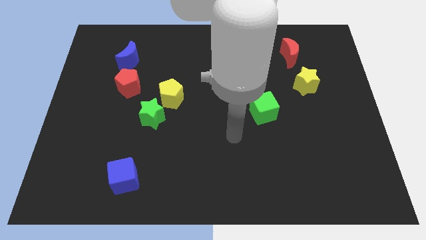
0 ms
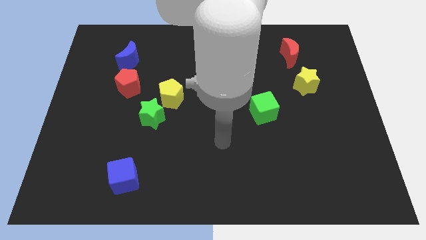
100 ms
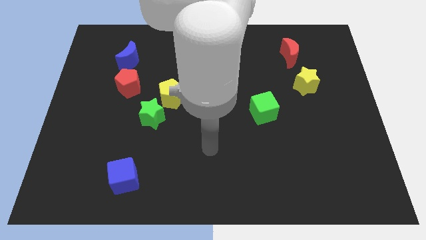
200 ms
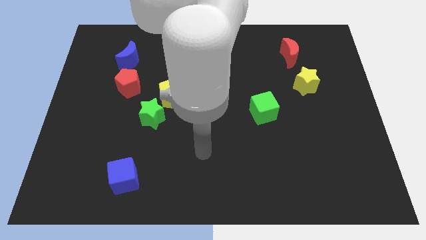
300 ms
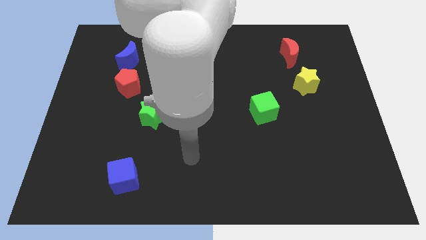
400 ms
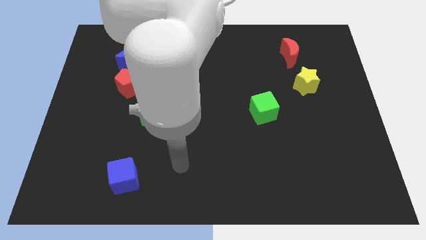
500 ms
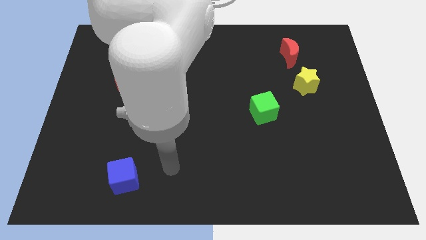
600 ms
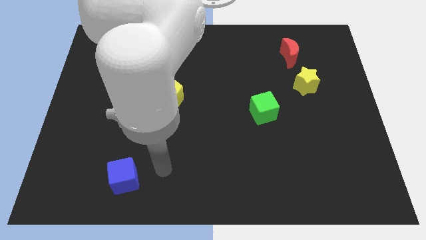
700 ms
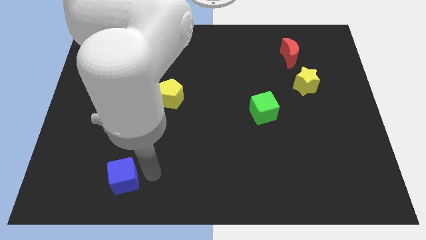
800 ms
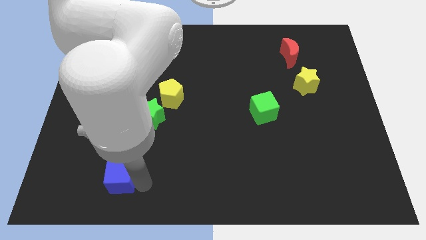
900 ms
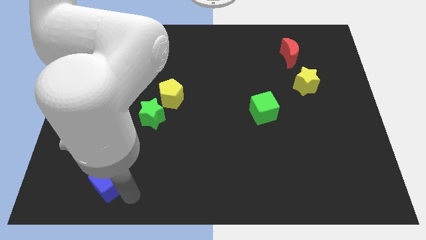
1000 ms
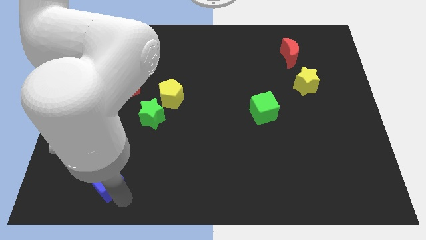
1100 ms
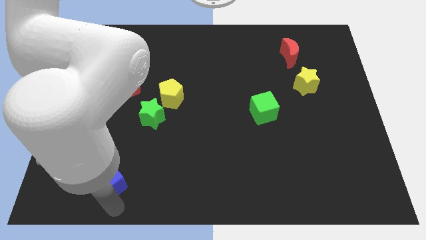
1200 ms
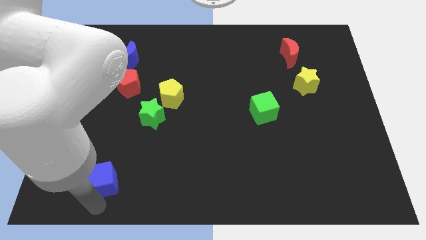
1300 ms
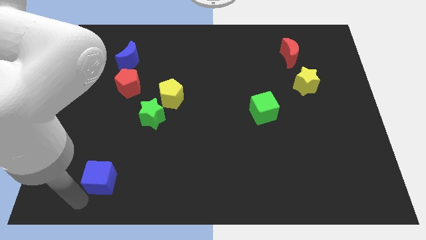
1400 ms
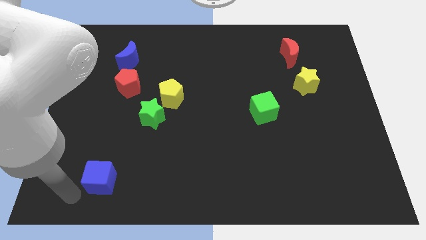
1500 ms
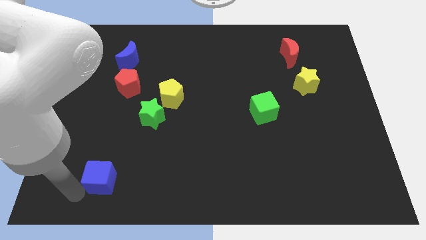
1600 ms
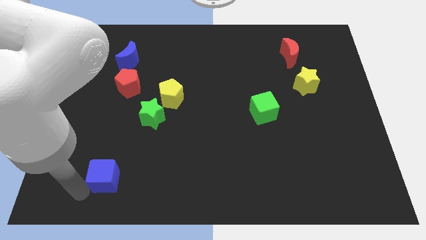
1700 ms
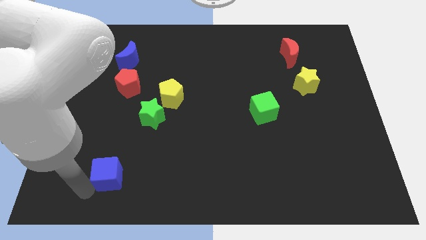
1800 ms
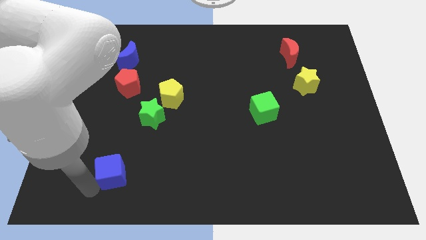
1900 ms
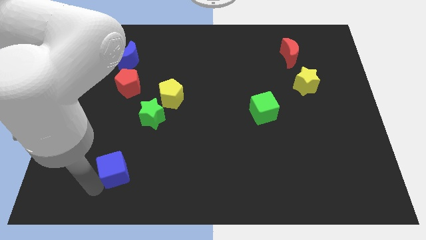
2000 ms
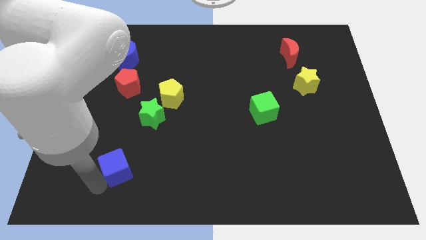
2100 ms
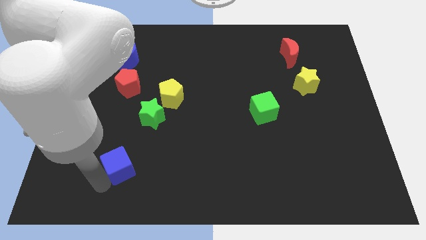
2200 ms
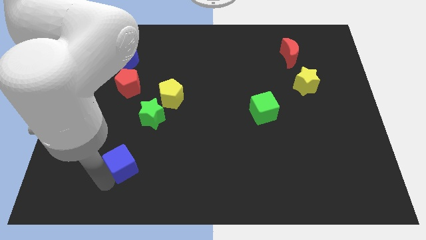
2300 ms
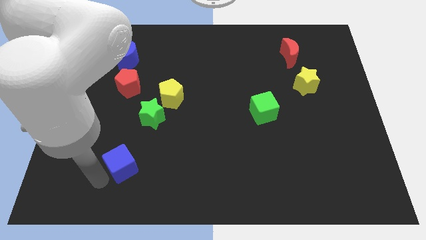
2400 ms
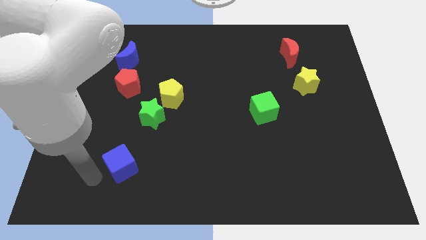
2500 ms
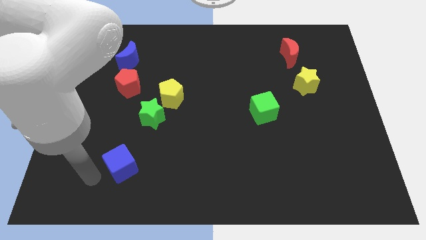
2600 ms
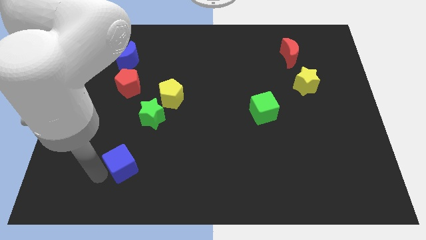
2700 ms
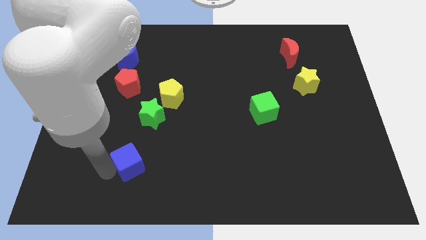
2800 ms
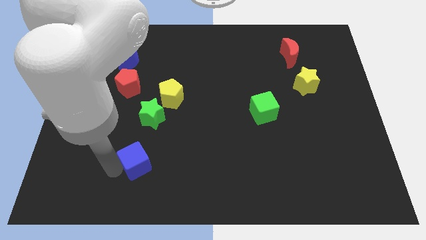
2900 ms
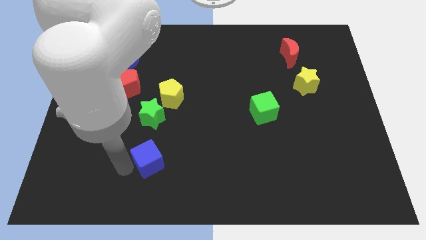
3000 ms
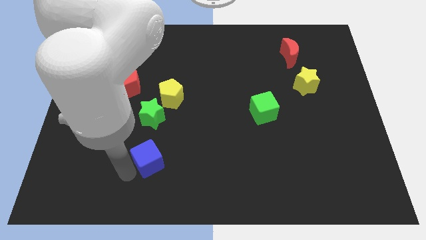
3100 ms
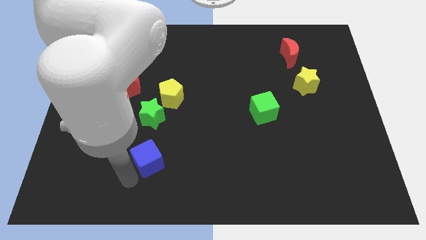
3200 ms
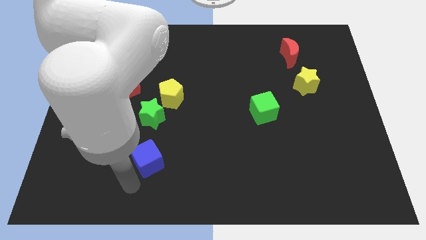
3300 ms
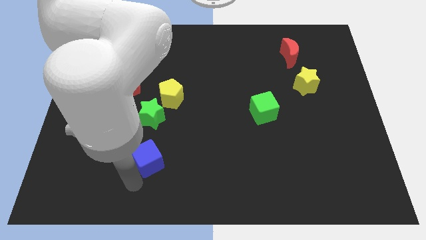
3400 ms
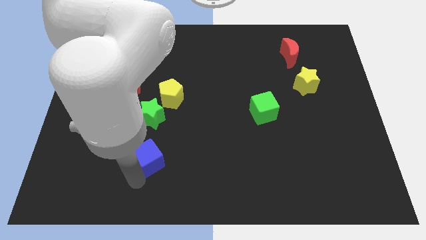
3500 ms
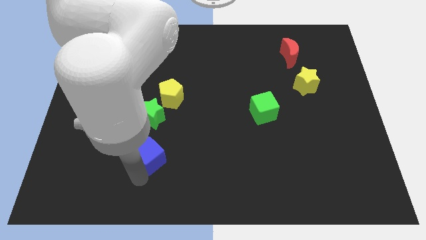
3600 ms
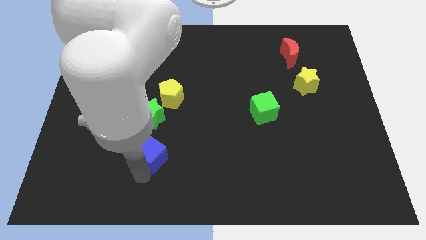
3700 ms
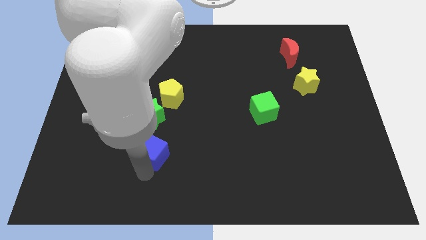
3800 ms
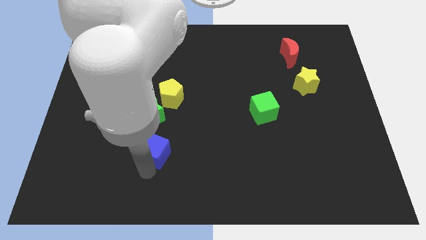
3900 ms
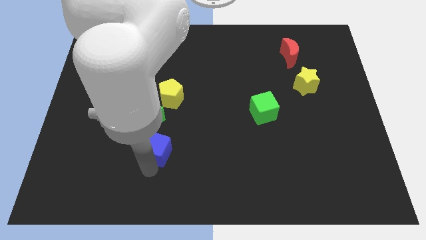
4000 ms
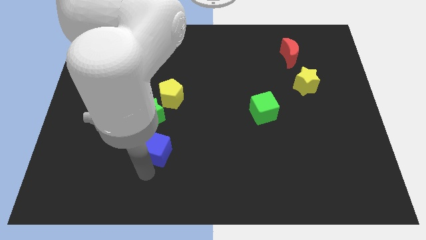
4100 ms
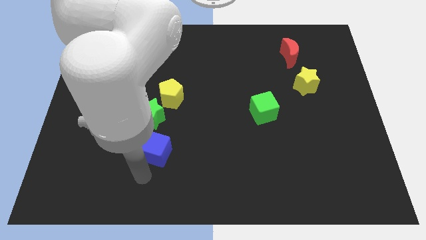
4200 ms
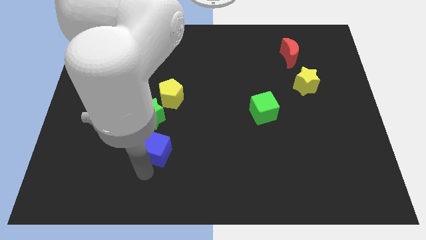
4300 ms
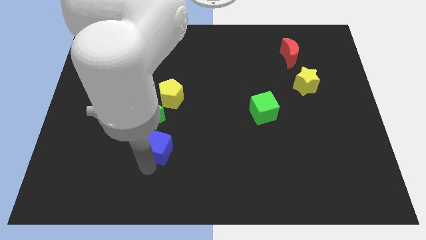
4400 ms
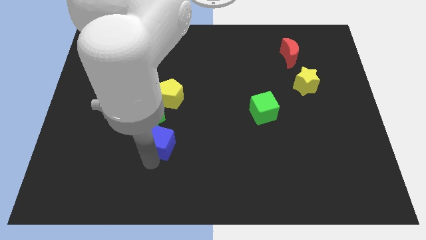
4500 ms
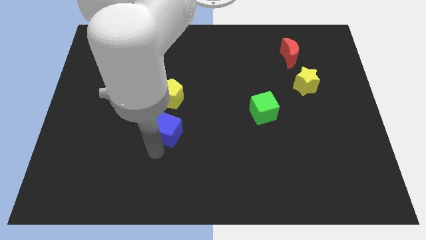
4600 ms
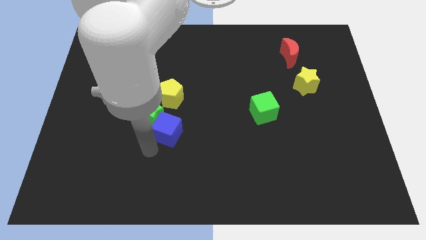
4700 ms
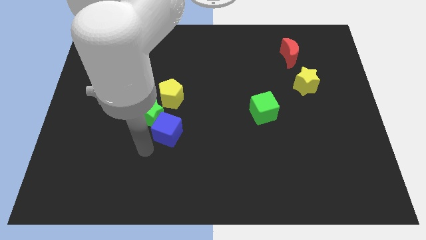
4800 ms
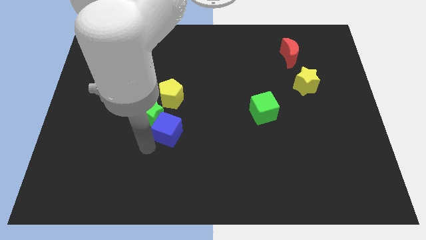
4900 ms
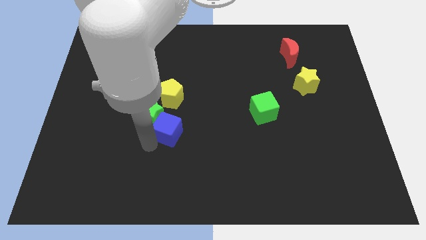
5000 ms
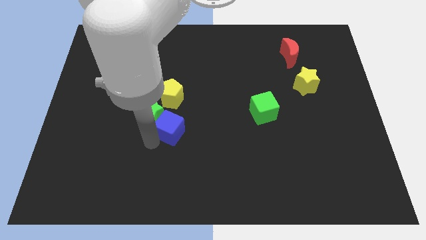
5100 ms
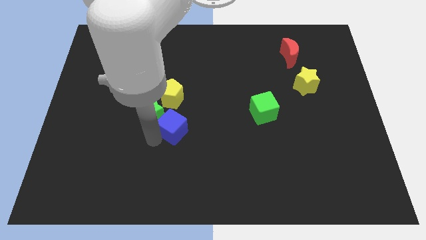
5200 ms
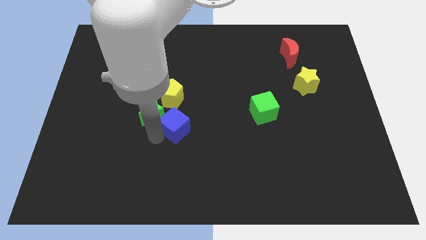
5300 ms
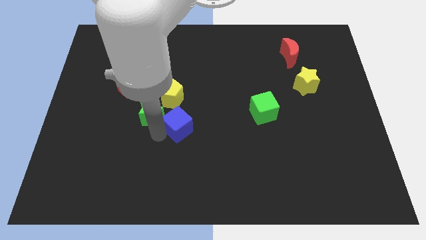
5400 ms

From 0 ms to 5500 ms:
push the blue cube to the bottom right of the yellow pentagon

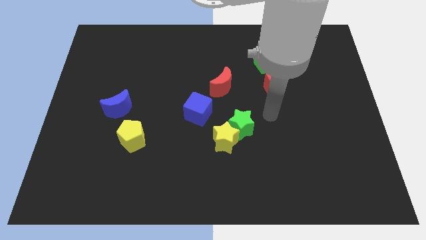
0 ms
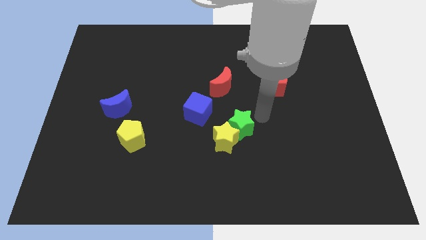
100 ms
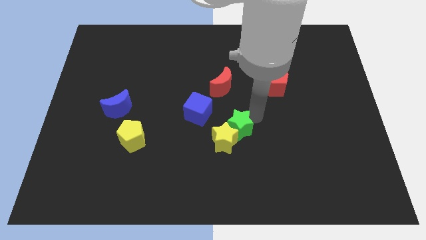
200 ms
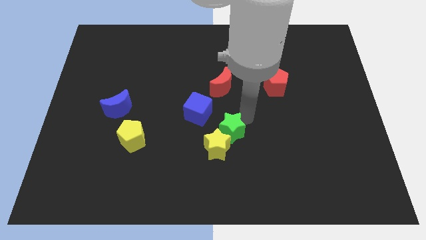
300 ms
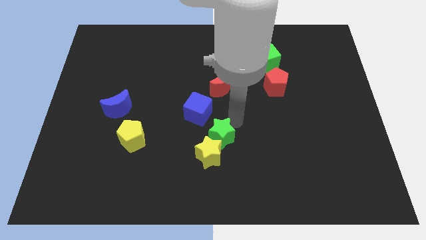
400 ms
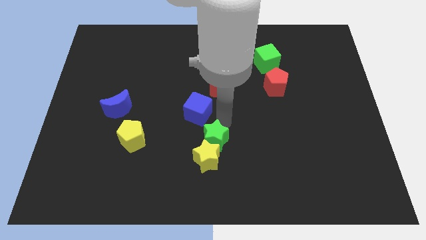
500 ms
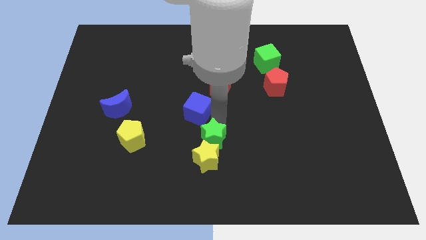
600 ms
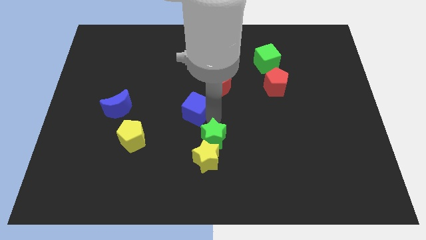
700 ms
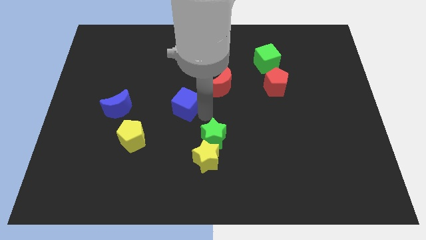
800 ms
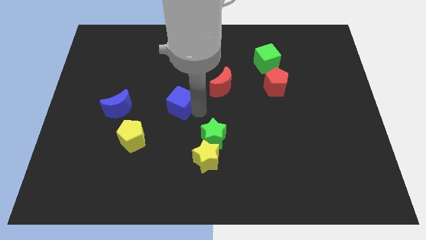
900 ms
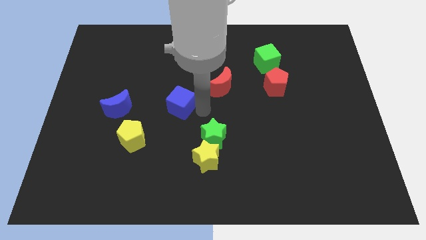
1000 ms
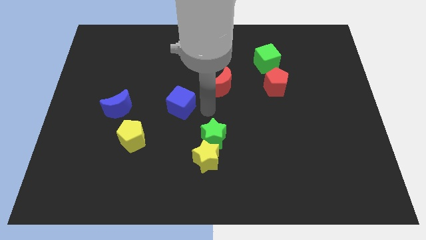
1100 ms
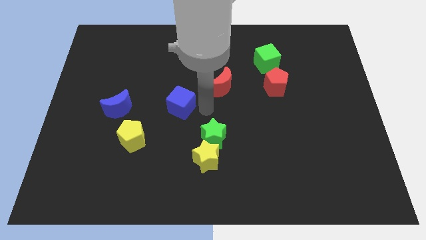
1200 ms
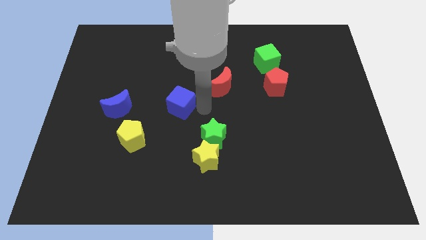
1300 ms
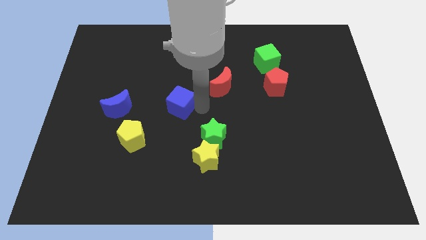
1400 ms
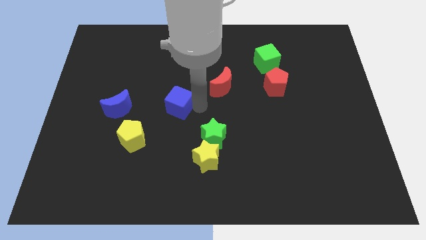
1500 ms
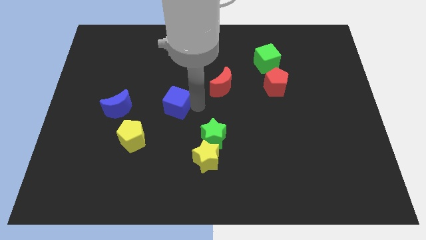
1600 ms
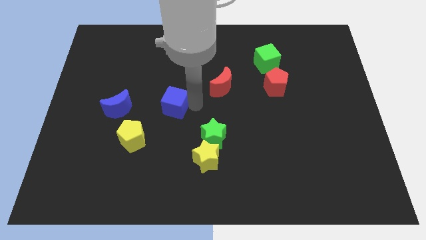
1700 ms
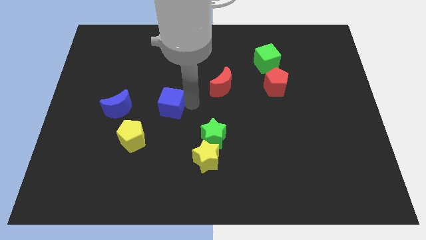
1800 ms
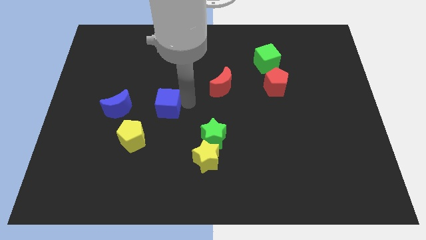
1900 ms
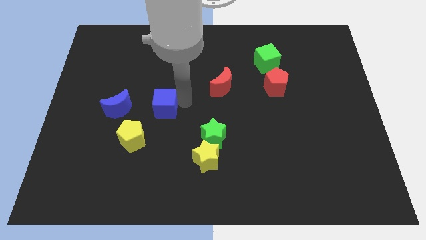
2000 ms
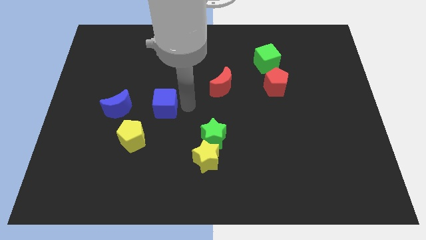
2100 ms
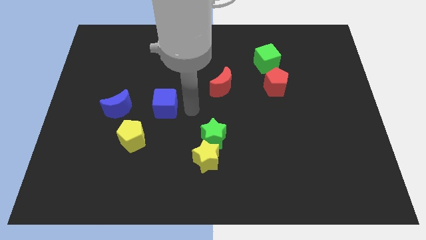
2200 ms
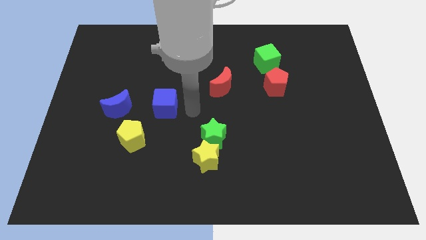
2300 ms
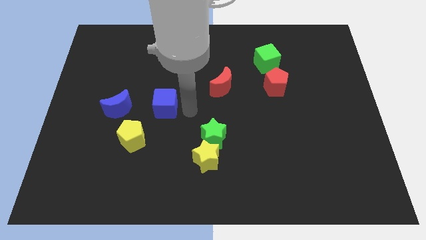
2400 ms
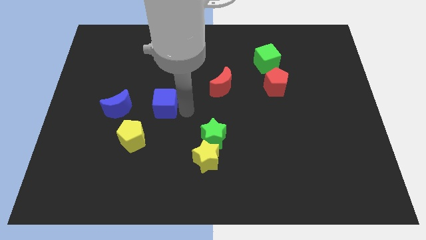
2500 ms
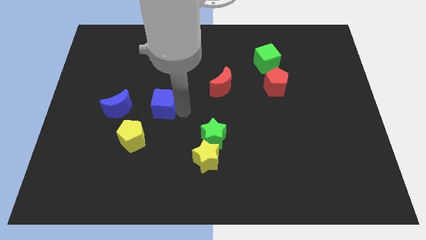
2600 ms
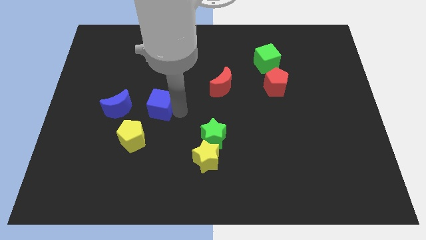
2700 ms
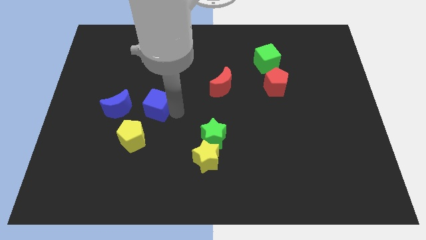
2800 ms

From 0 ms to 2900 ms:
push the blue cube to the top of the yellow pentagon
